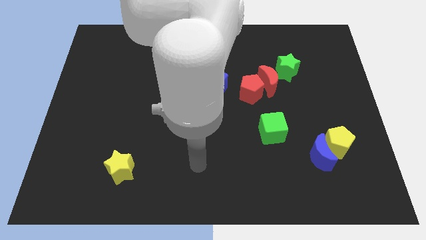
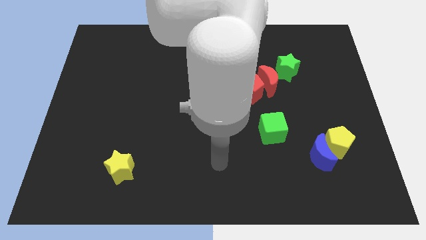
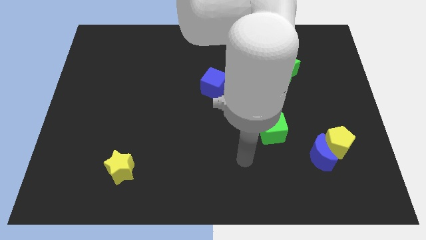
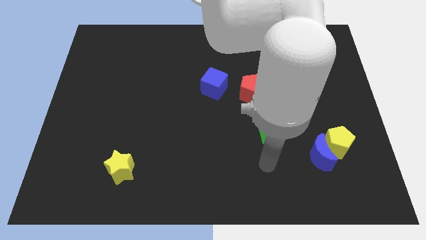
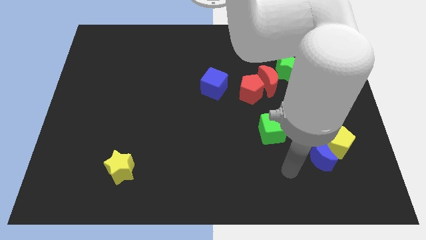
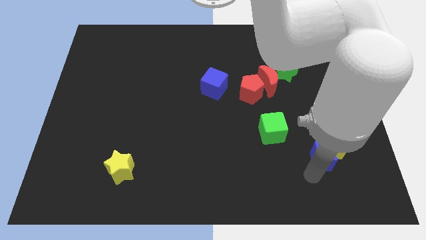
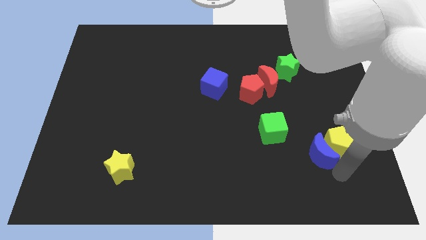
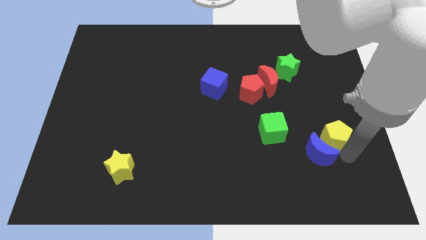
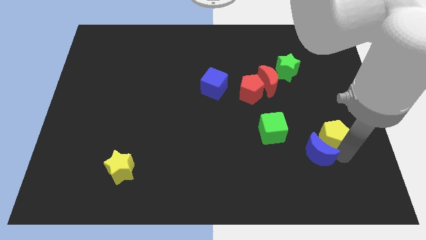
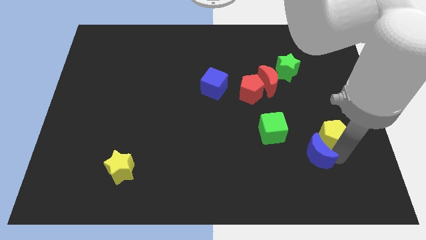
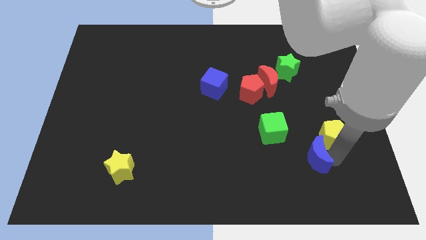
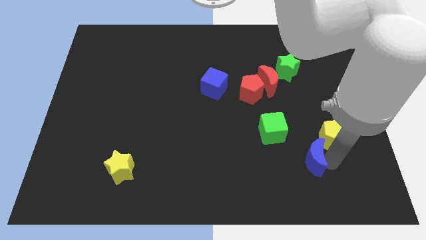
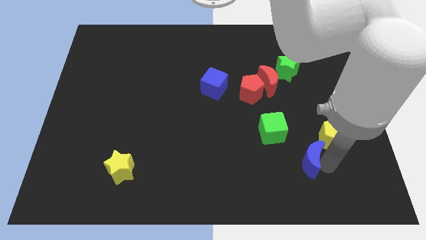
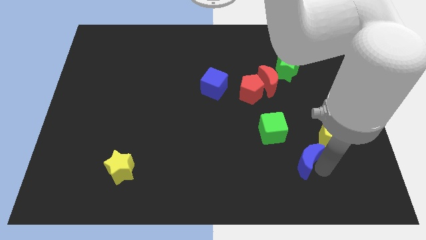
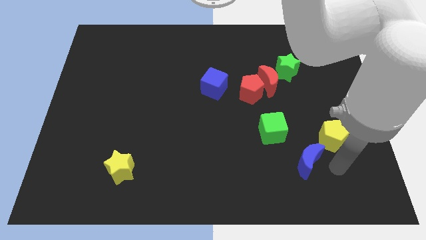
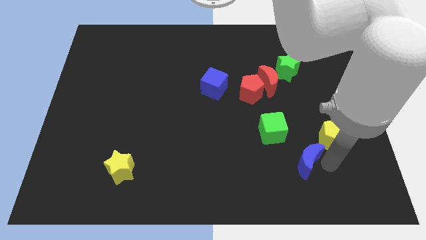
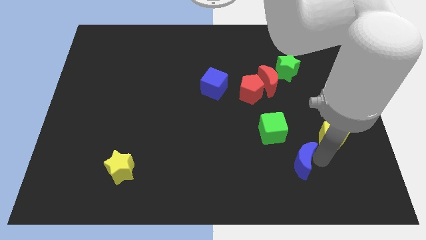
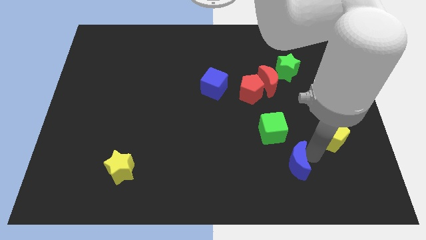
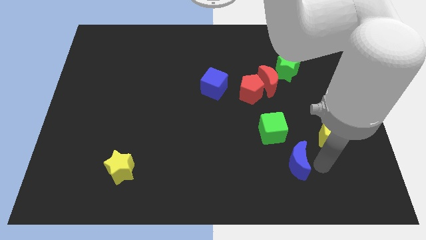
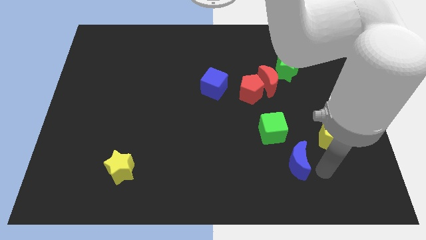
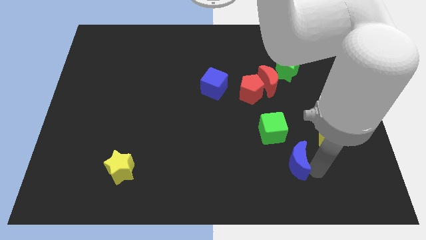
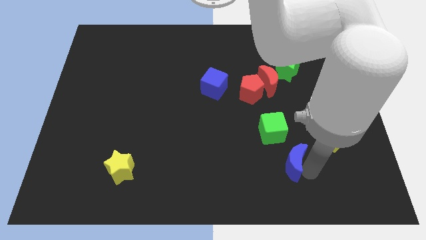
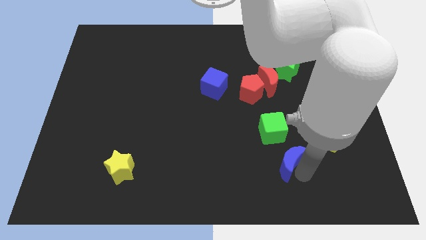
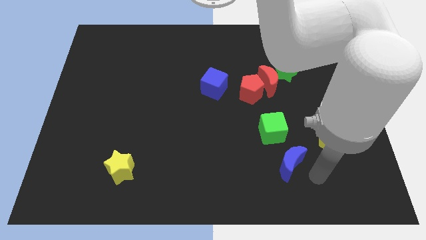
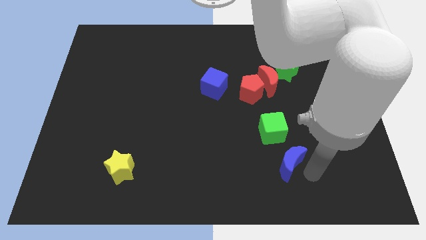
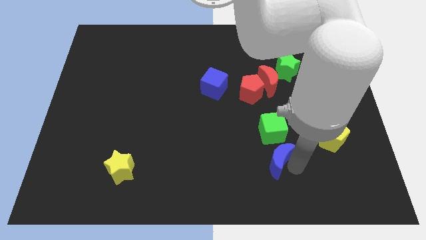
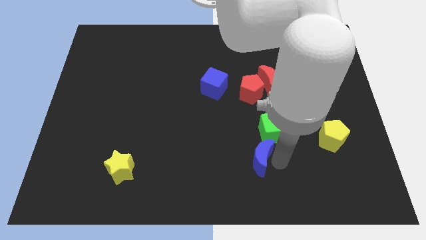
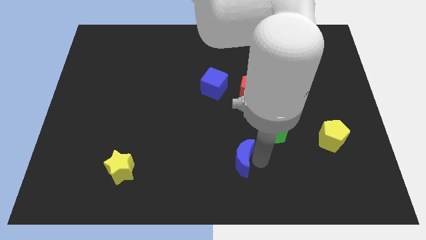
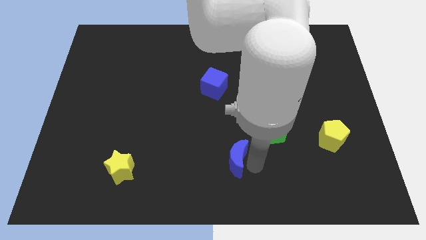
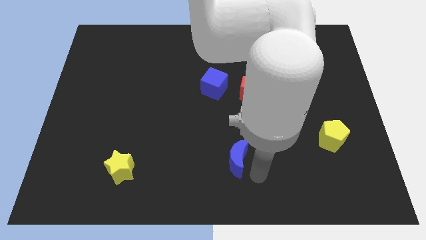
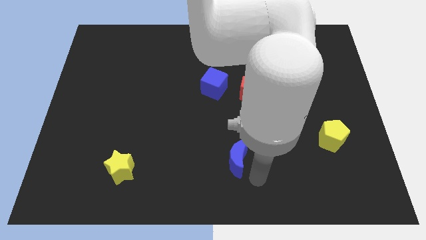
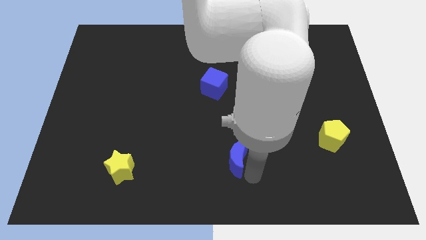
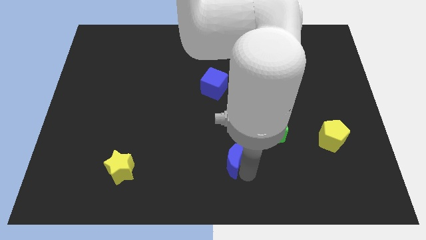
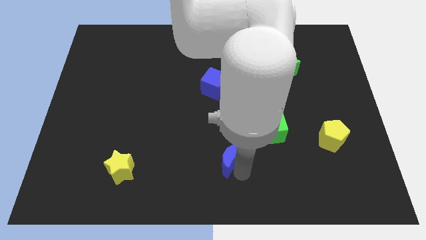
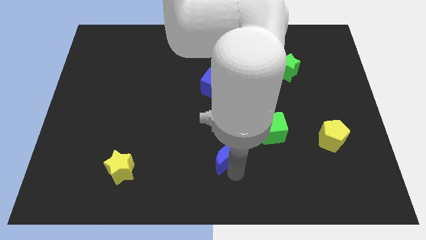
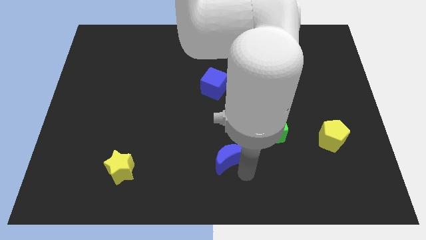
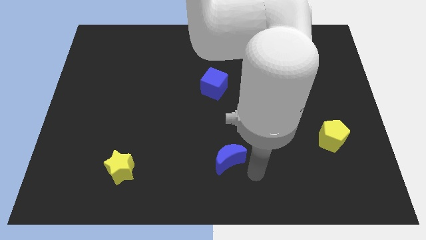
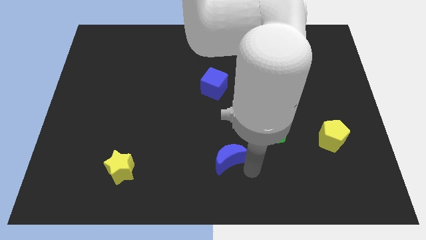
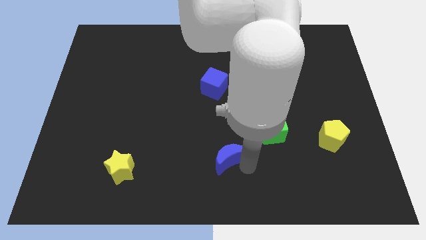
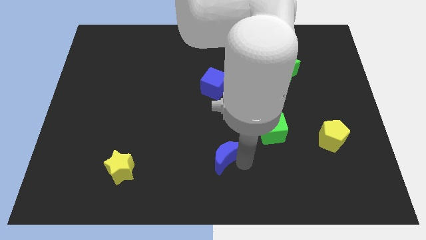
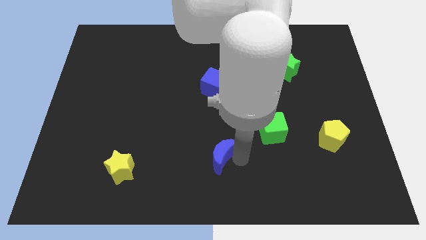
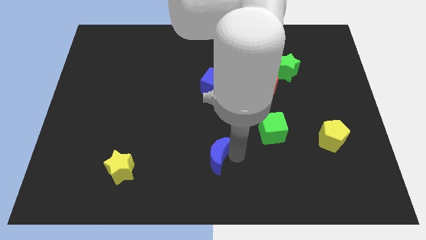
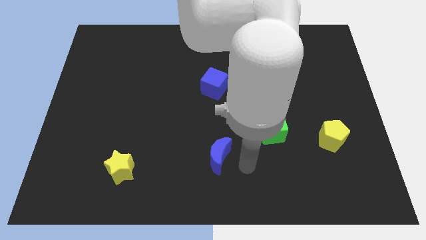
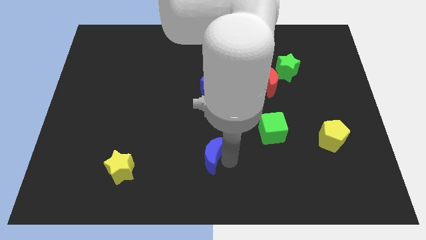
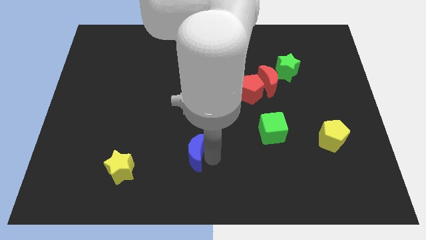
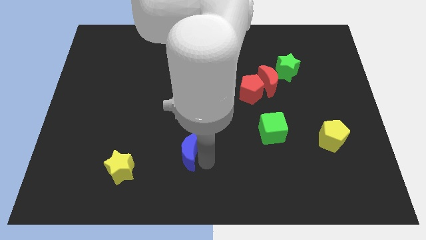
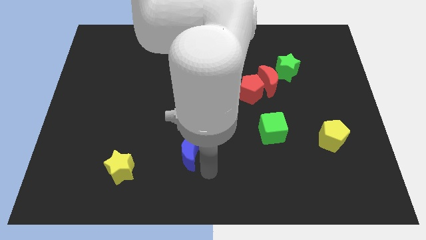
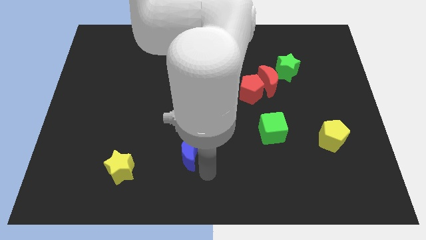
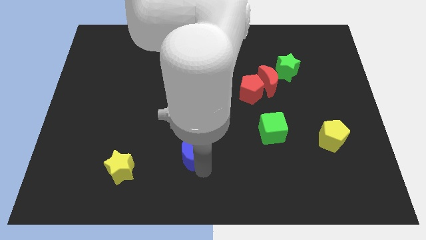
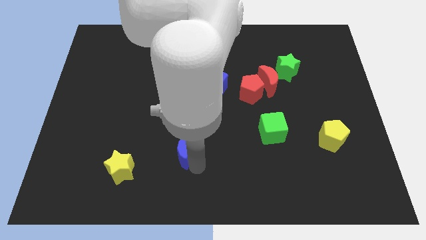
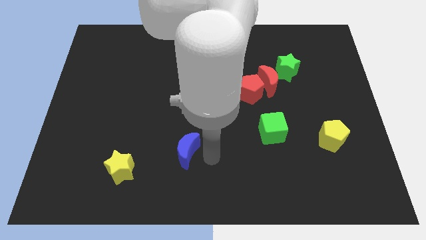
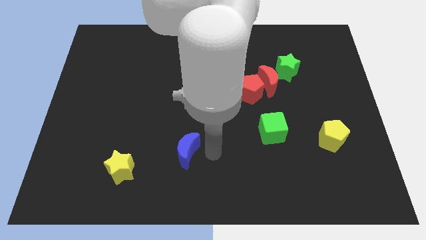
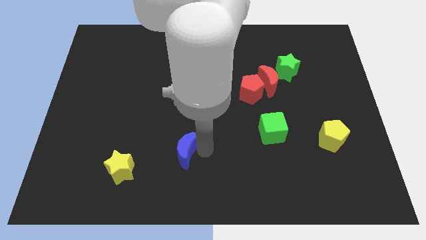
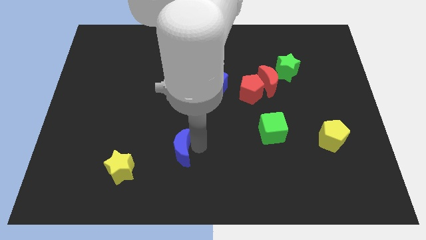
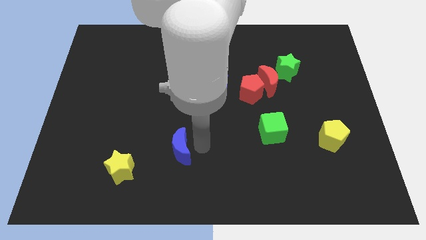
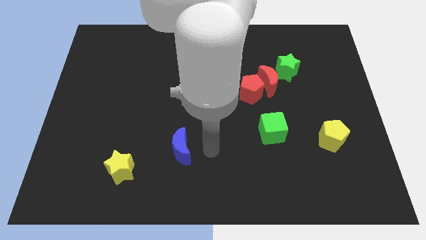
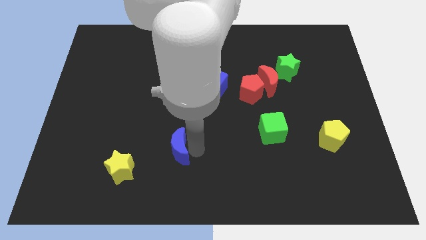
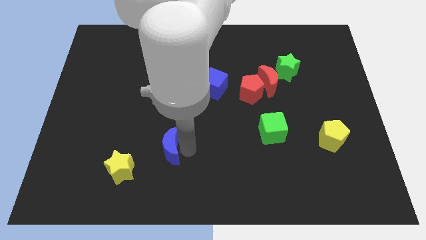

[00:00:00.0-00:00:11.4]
push the blue moon to the top right of the yellow star

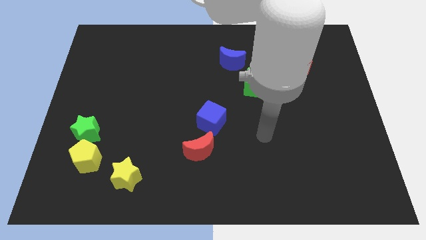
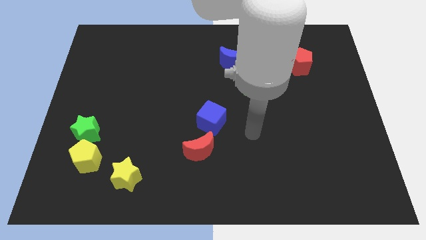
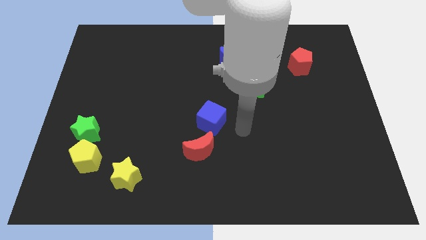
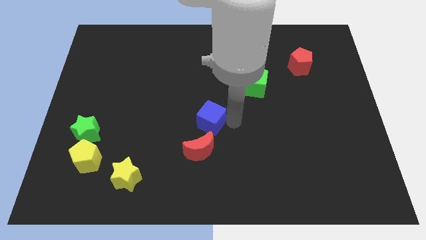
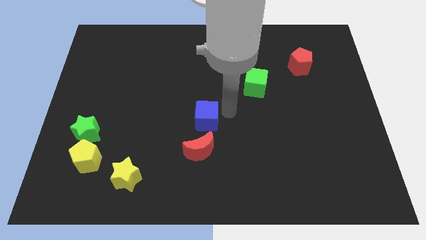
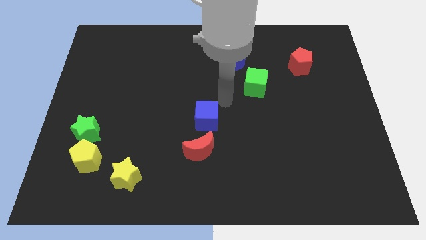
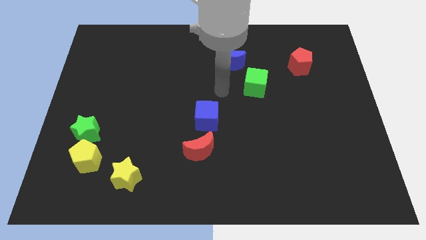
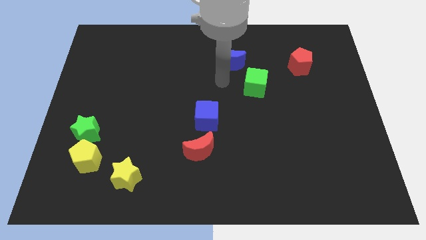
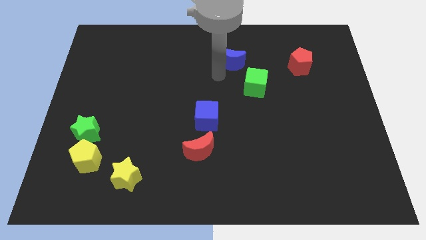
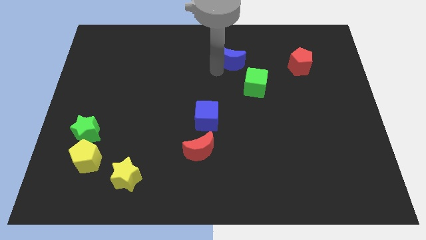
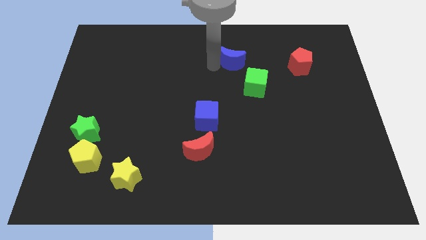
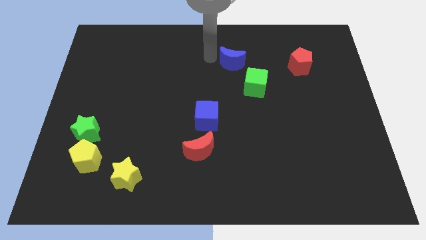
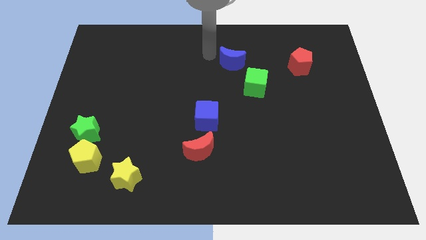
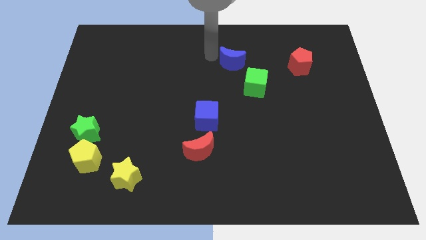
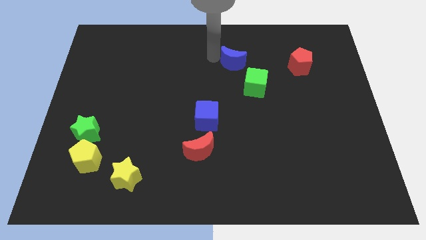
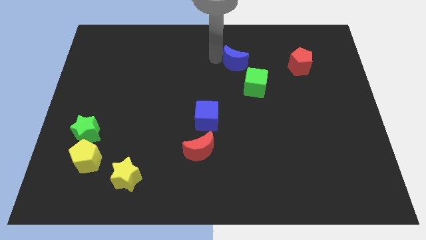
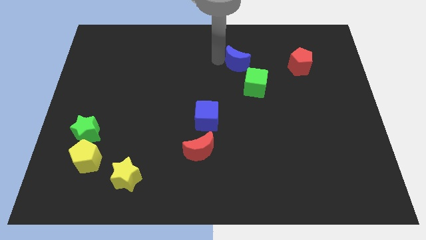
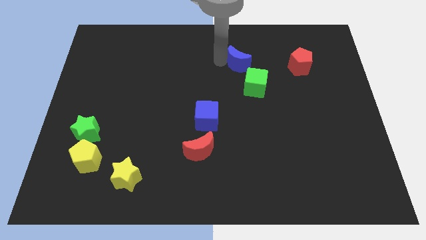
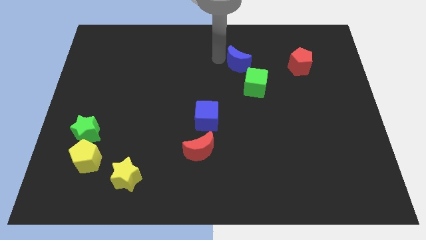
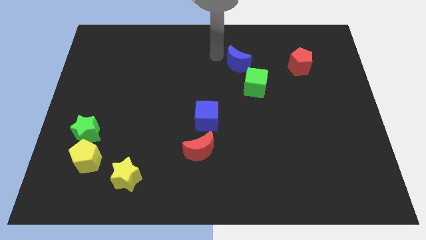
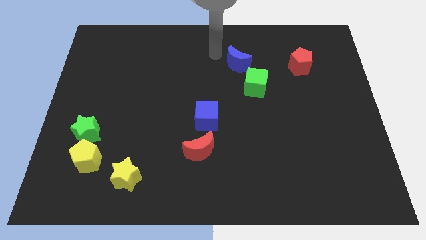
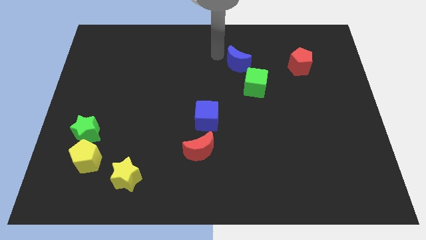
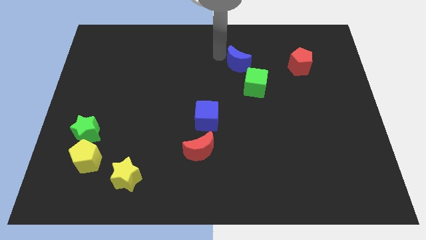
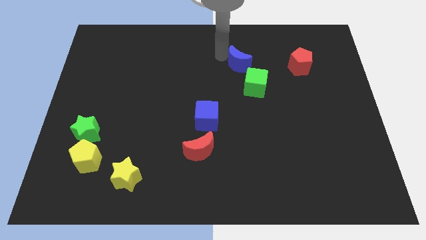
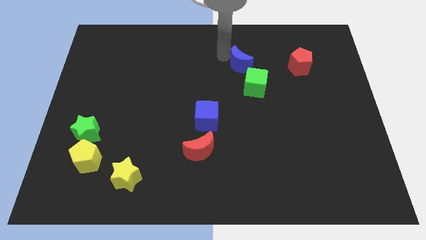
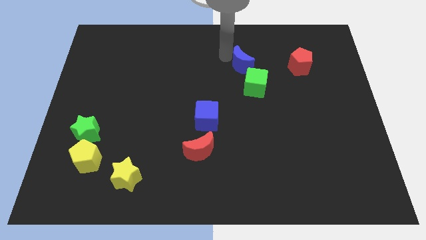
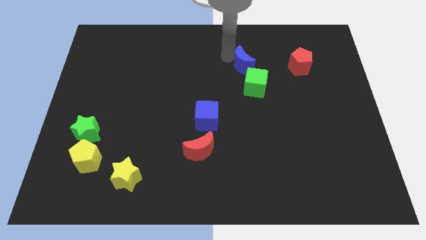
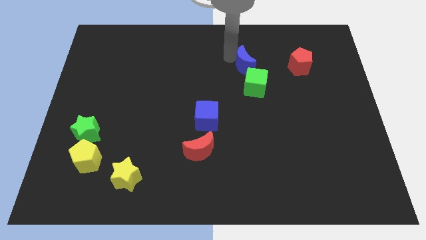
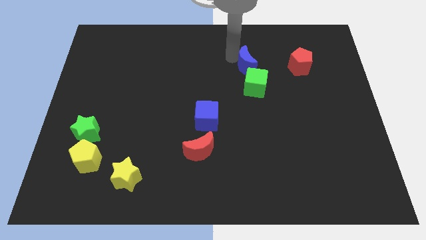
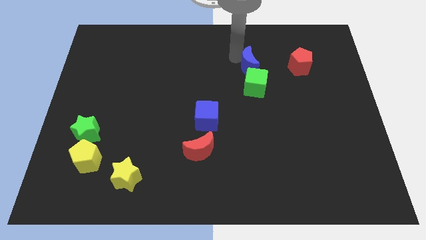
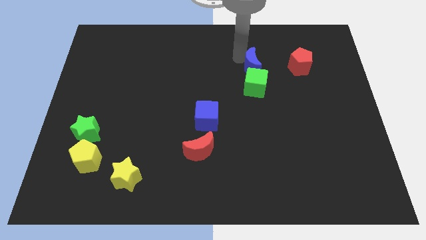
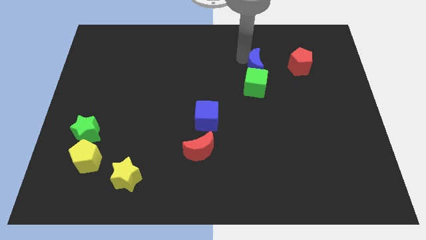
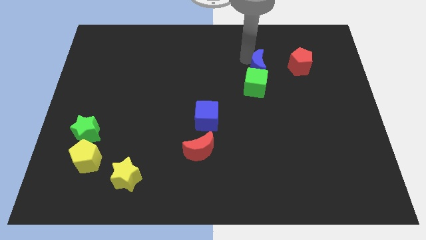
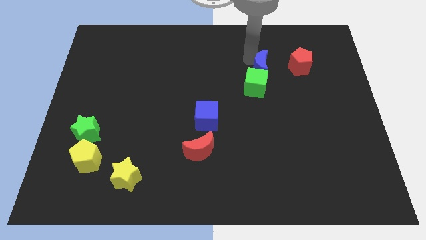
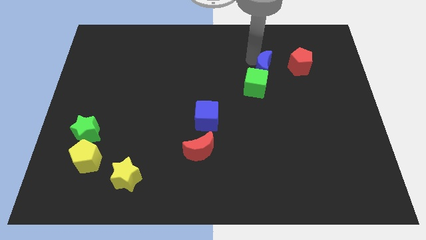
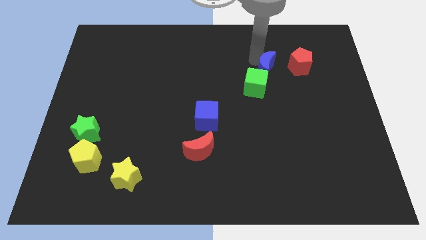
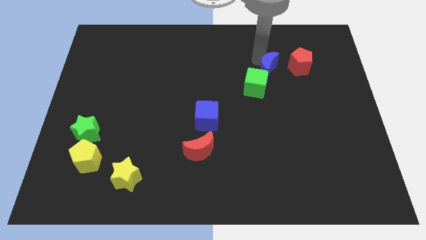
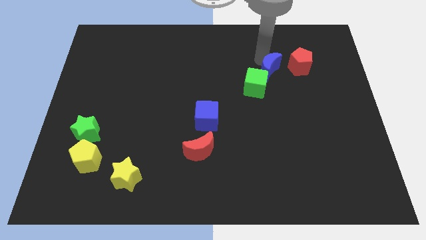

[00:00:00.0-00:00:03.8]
slide the blue moon to the bottom left side of the red pentagon
